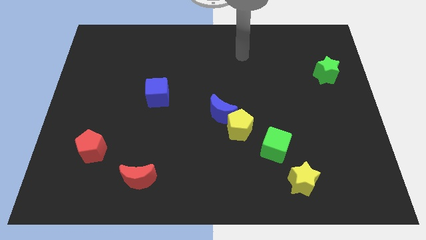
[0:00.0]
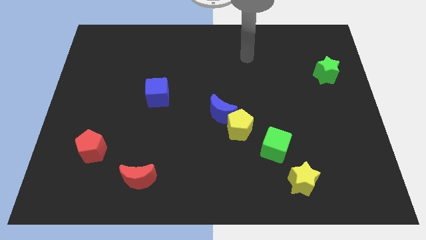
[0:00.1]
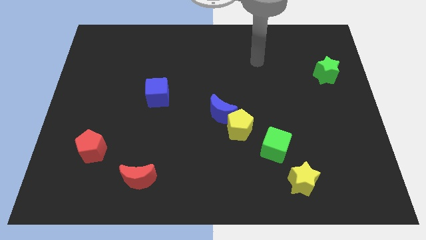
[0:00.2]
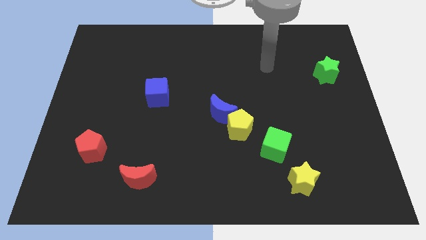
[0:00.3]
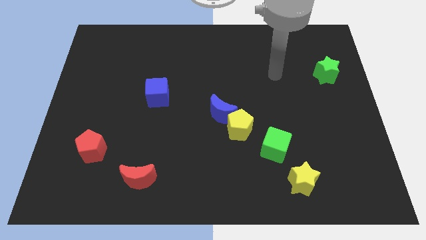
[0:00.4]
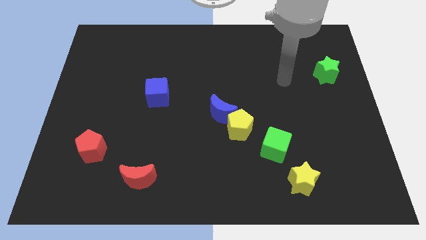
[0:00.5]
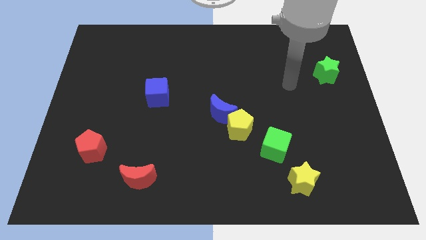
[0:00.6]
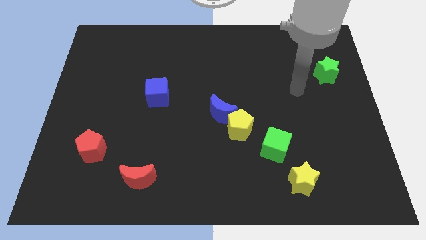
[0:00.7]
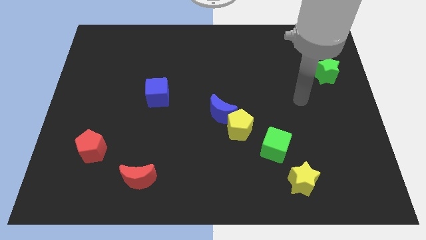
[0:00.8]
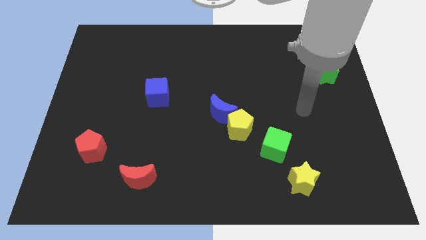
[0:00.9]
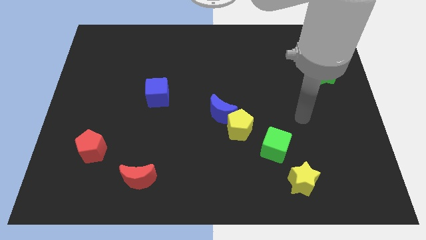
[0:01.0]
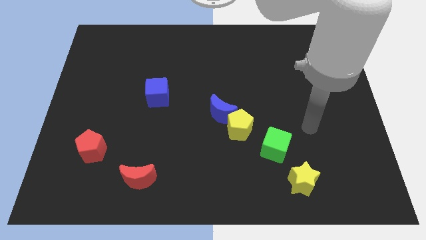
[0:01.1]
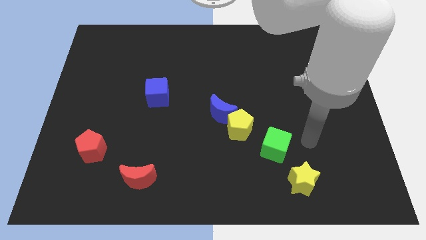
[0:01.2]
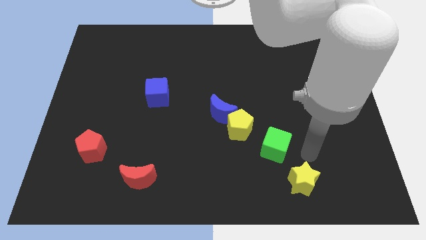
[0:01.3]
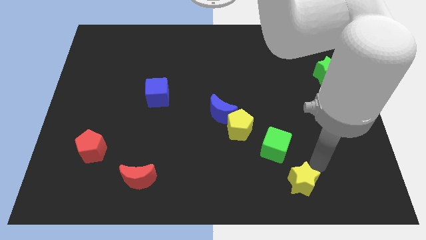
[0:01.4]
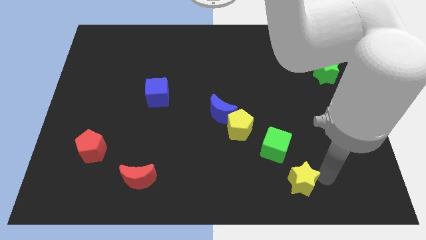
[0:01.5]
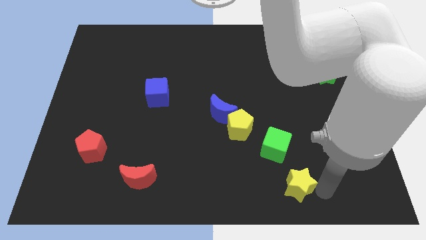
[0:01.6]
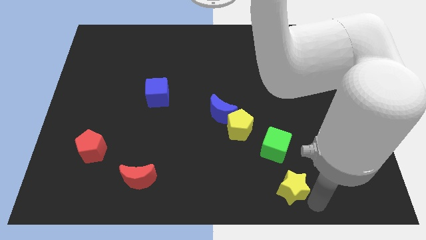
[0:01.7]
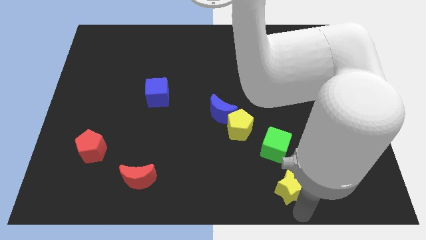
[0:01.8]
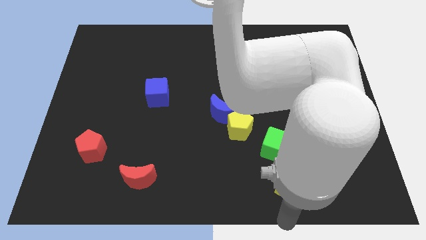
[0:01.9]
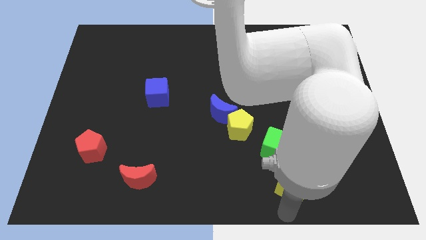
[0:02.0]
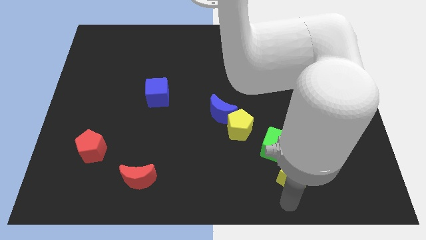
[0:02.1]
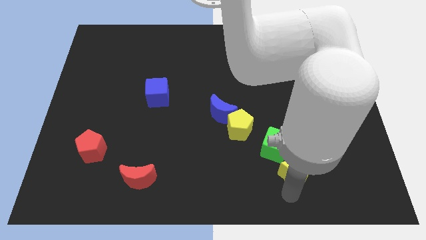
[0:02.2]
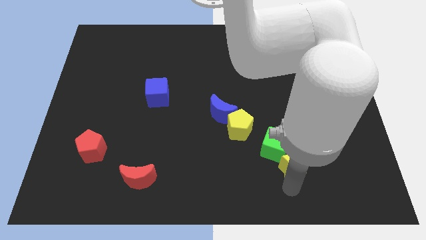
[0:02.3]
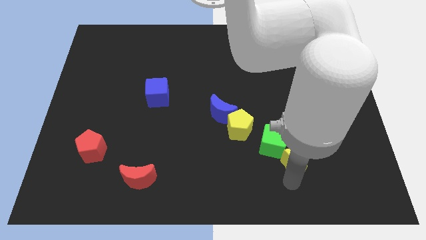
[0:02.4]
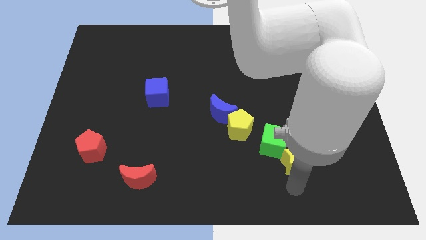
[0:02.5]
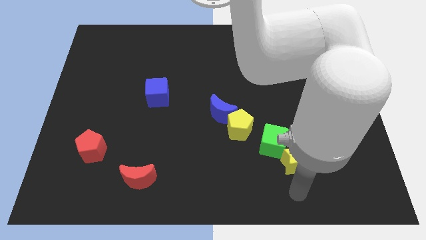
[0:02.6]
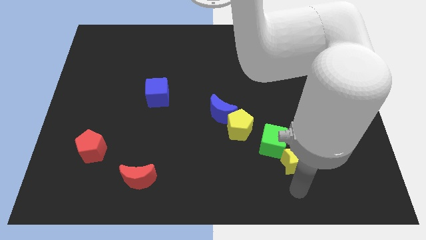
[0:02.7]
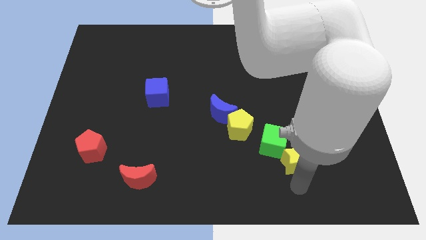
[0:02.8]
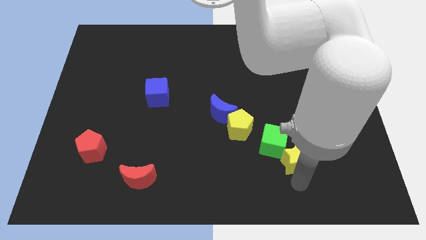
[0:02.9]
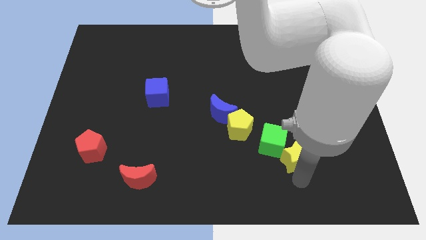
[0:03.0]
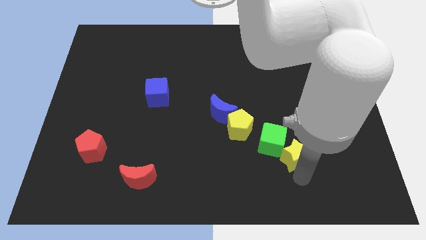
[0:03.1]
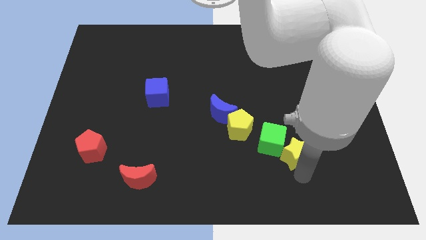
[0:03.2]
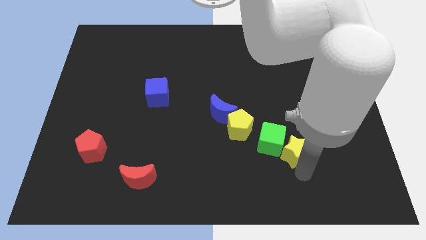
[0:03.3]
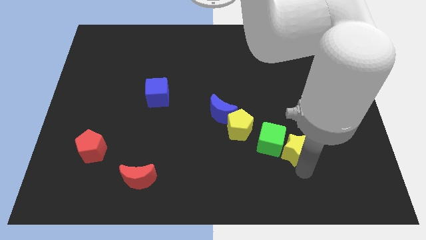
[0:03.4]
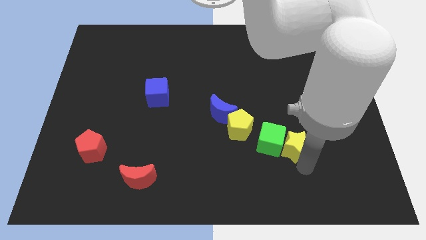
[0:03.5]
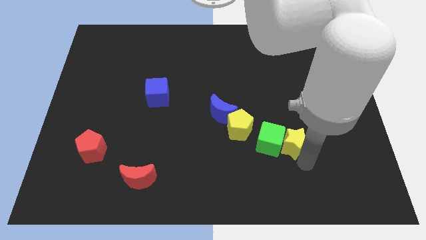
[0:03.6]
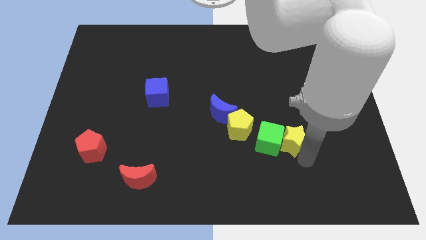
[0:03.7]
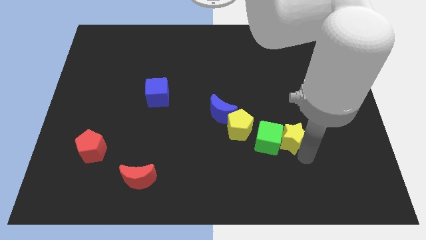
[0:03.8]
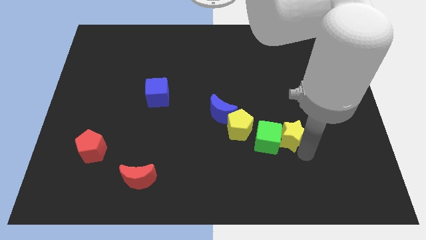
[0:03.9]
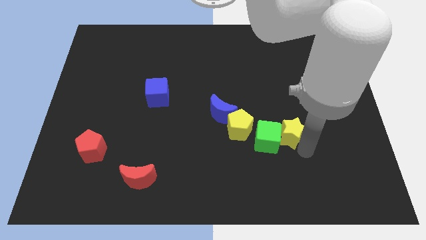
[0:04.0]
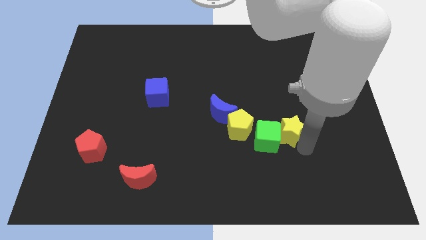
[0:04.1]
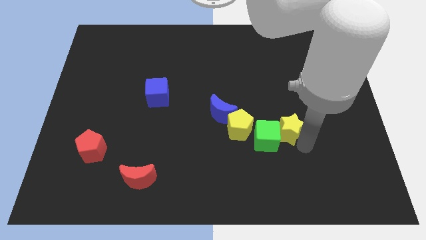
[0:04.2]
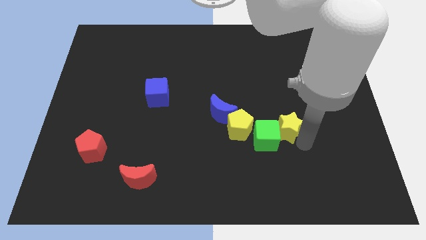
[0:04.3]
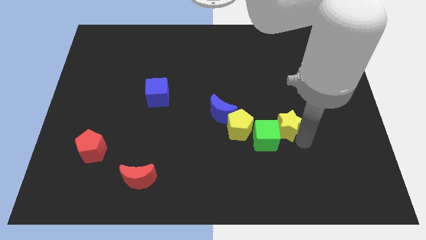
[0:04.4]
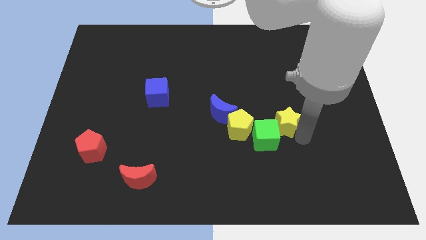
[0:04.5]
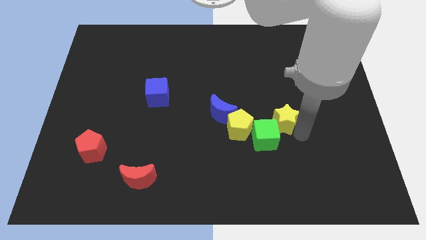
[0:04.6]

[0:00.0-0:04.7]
push the yellow star above the green cube

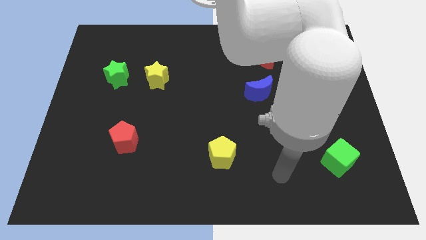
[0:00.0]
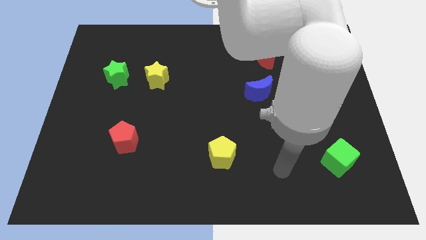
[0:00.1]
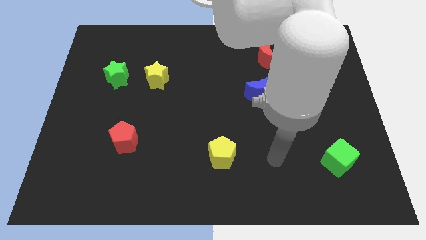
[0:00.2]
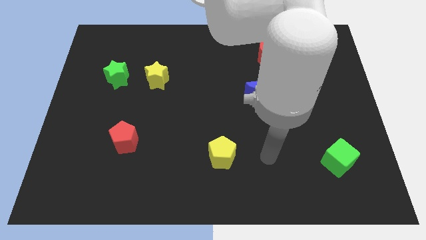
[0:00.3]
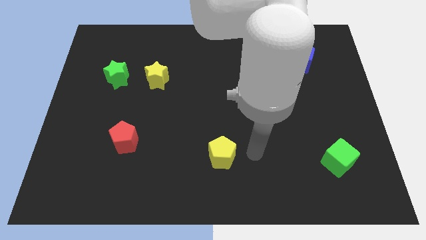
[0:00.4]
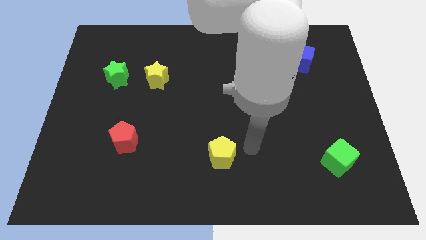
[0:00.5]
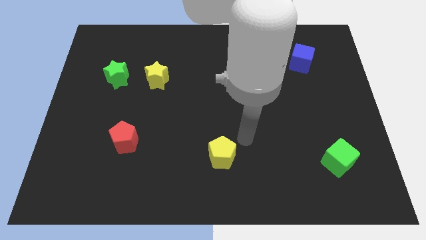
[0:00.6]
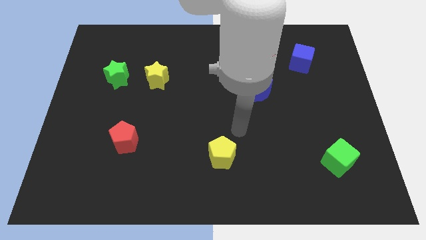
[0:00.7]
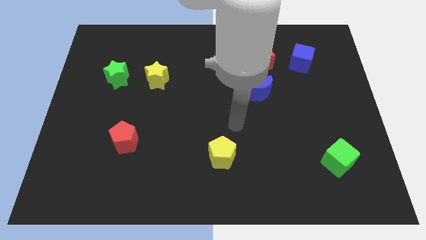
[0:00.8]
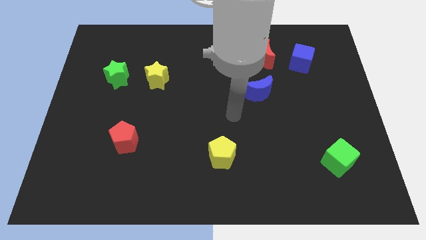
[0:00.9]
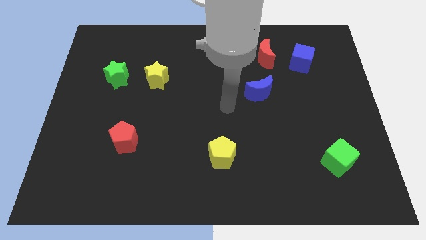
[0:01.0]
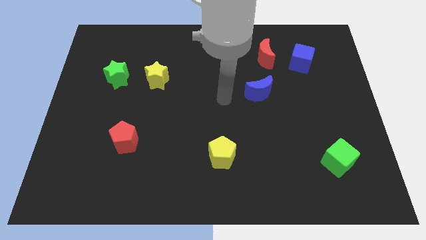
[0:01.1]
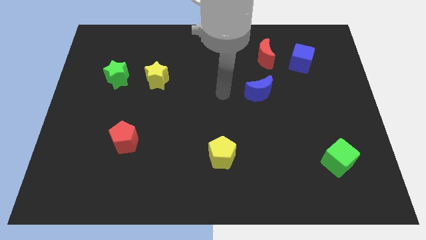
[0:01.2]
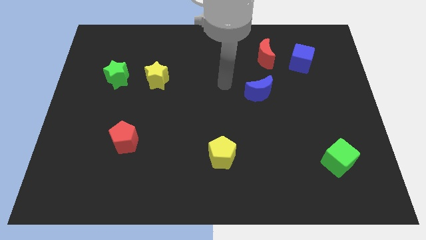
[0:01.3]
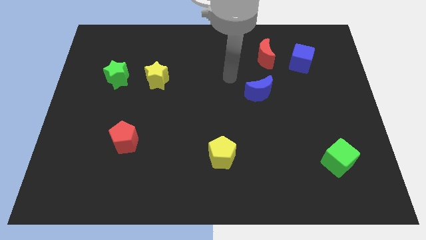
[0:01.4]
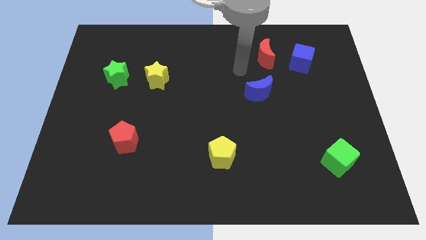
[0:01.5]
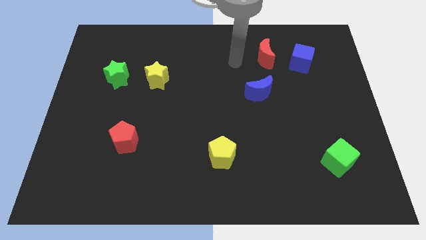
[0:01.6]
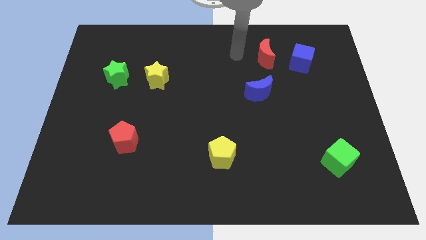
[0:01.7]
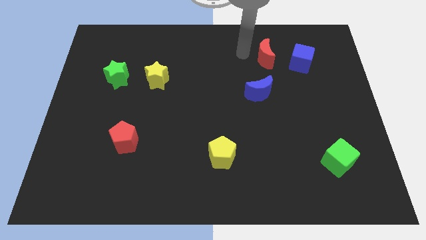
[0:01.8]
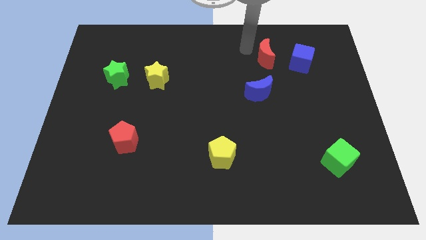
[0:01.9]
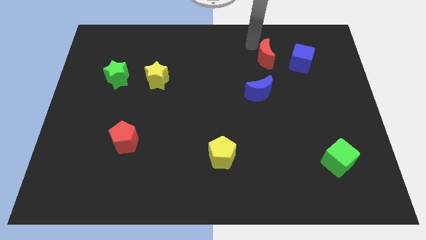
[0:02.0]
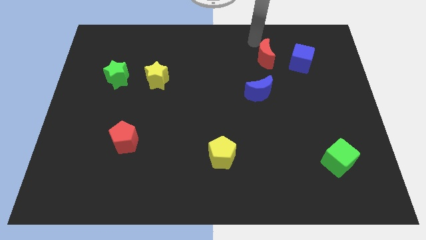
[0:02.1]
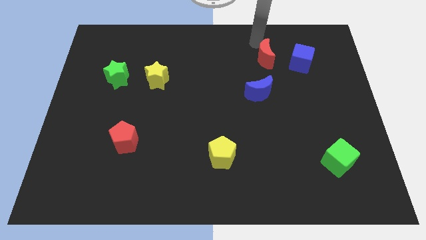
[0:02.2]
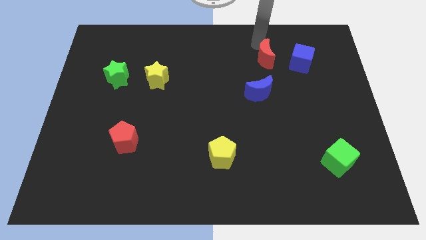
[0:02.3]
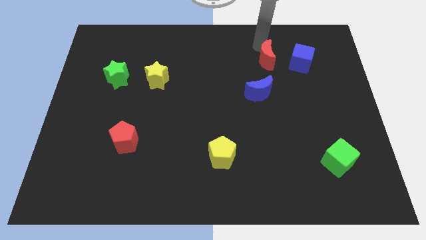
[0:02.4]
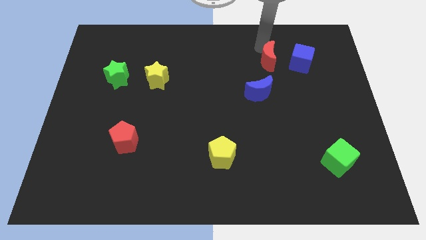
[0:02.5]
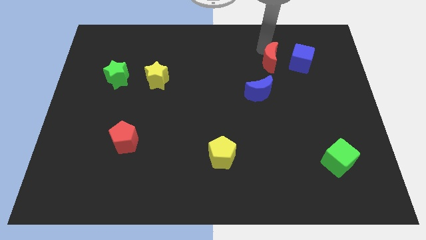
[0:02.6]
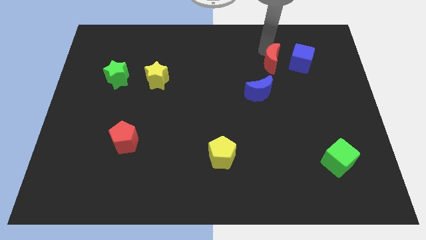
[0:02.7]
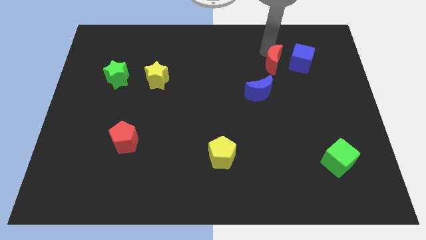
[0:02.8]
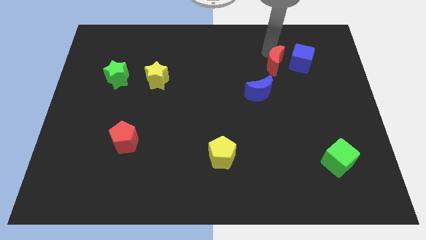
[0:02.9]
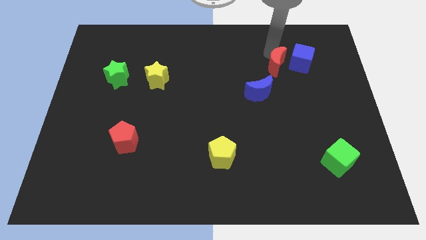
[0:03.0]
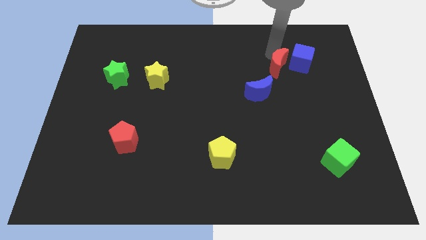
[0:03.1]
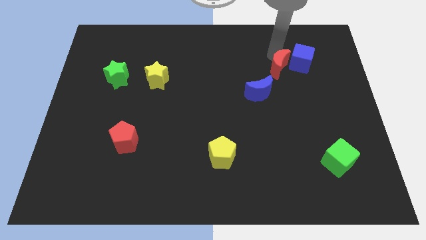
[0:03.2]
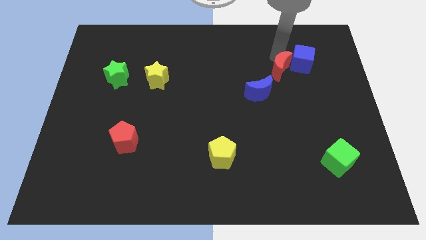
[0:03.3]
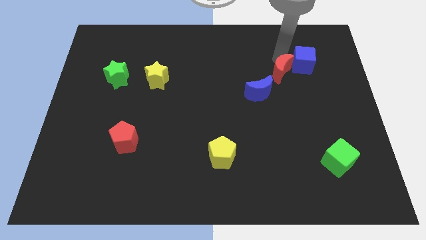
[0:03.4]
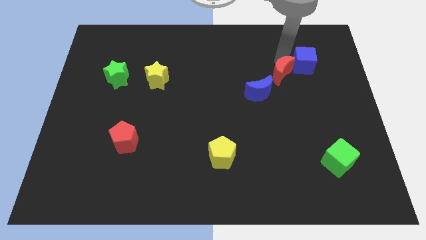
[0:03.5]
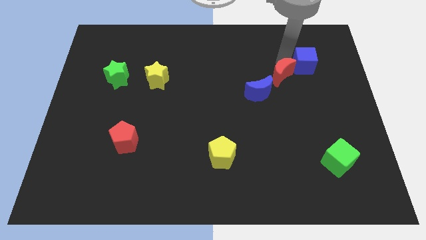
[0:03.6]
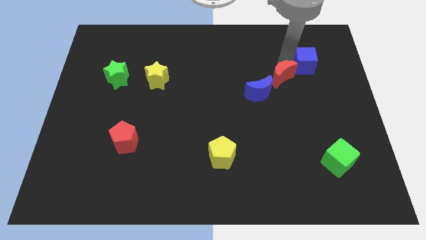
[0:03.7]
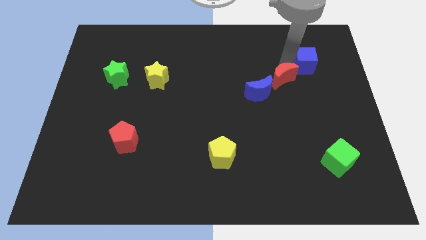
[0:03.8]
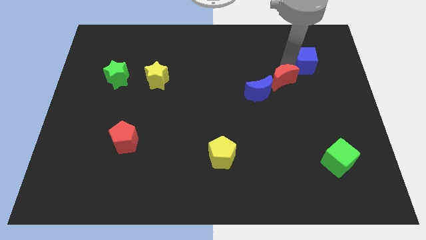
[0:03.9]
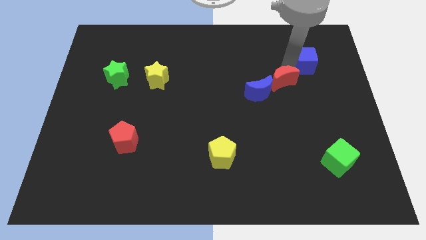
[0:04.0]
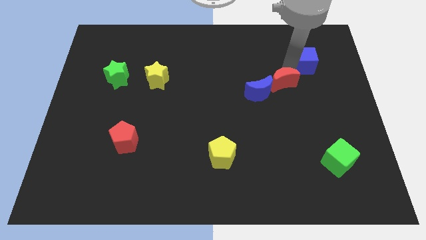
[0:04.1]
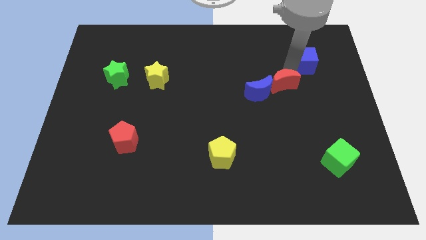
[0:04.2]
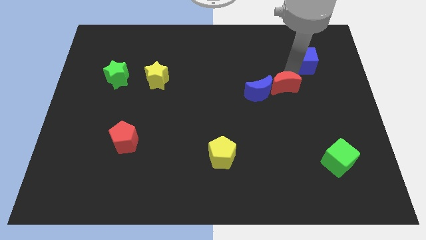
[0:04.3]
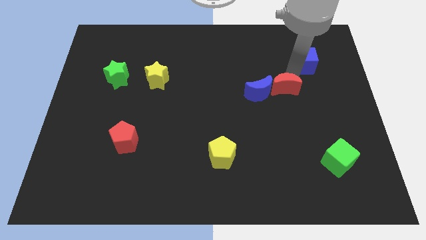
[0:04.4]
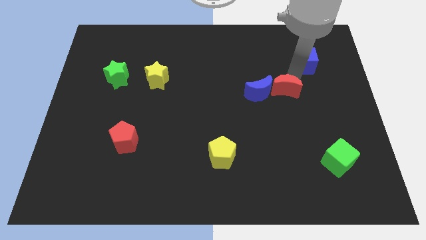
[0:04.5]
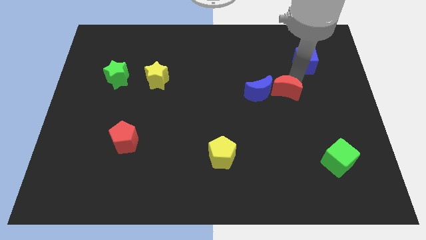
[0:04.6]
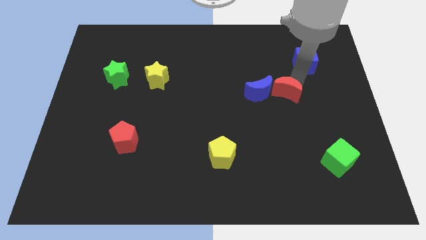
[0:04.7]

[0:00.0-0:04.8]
put the red moon diagonally down and to the right of the blue moon
